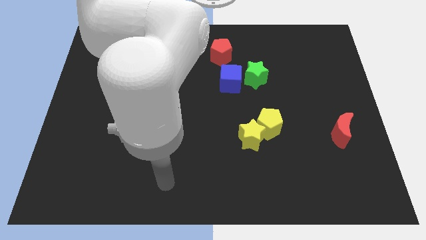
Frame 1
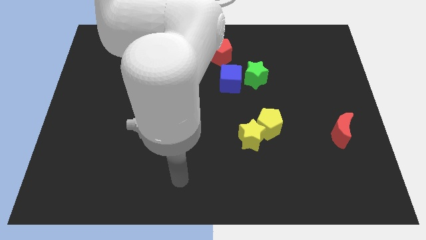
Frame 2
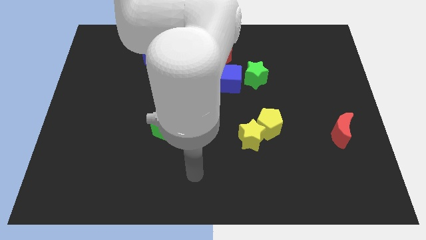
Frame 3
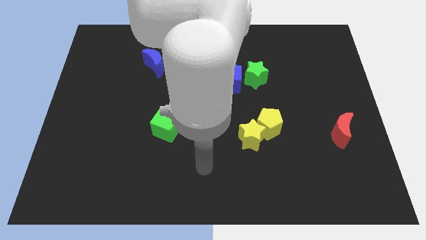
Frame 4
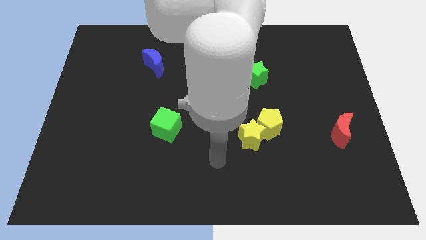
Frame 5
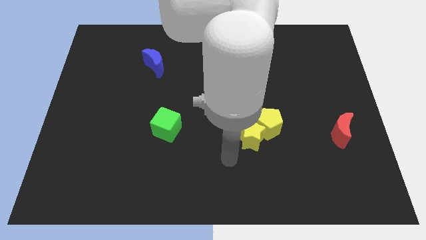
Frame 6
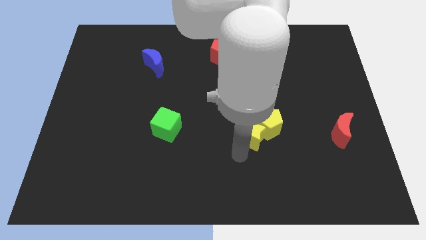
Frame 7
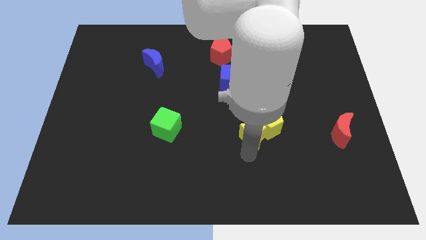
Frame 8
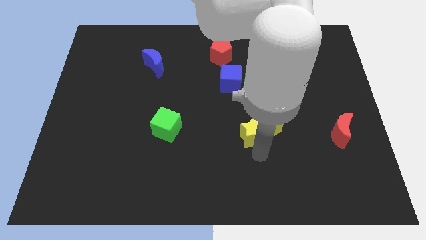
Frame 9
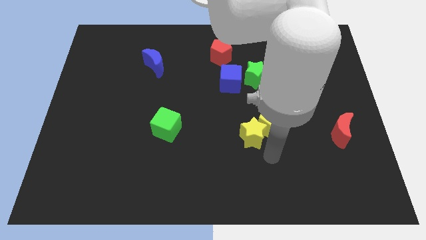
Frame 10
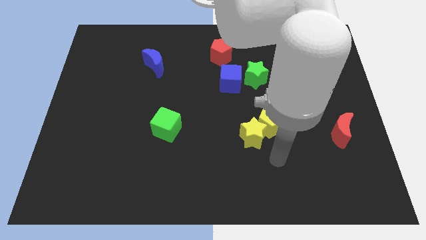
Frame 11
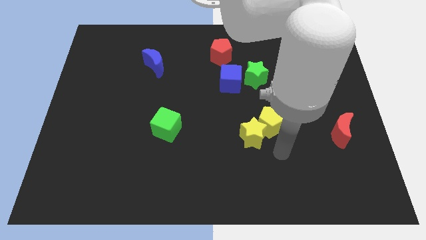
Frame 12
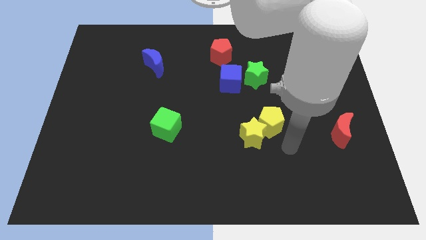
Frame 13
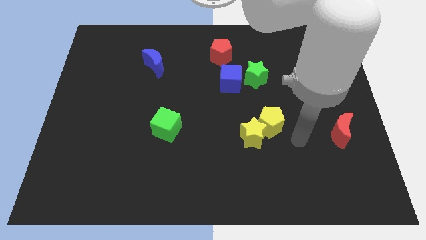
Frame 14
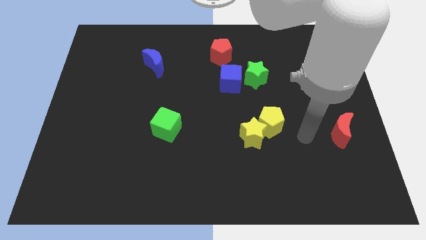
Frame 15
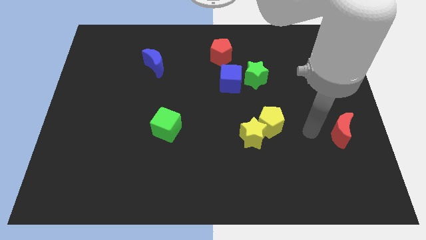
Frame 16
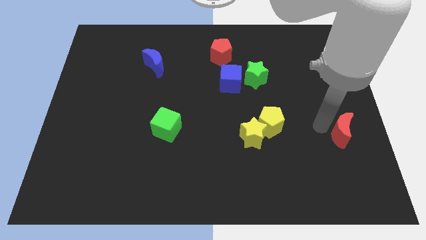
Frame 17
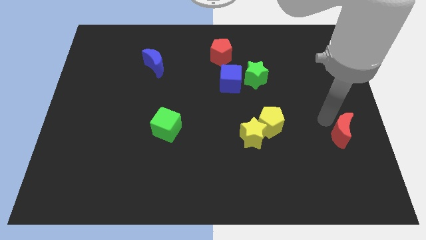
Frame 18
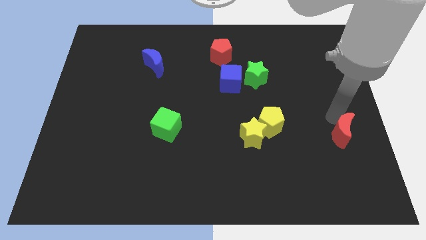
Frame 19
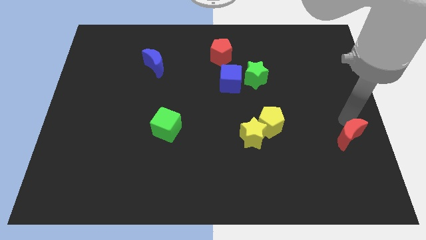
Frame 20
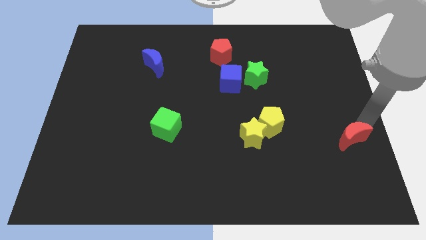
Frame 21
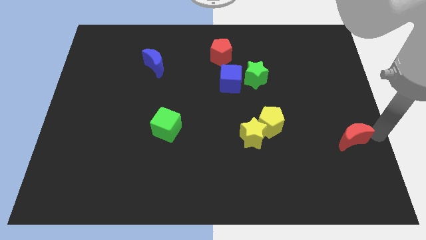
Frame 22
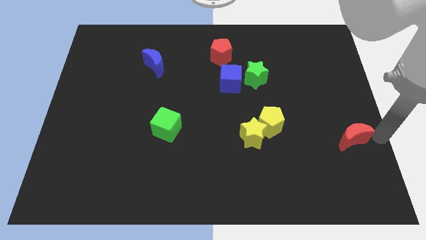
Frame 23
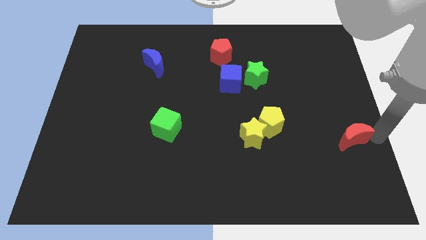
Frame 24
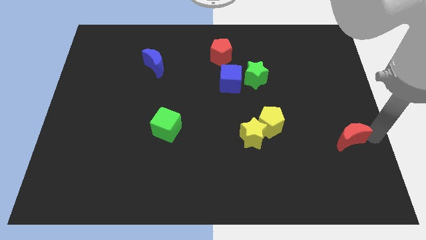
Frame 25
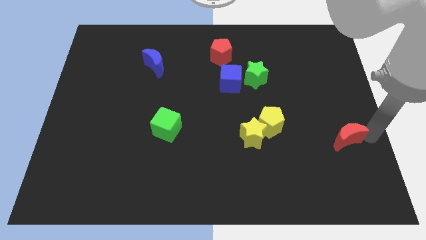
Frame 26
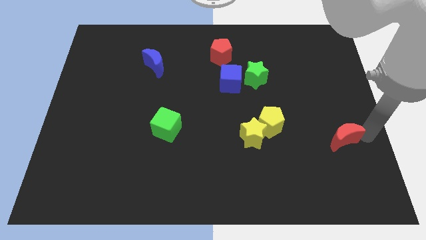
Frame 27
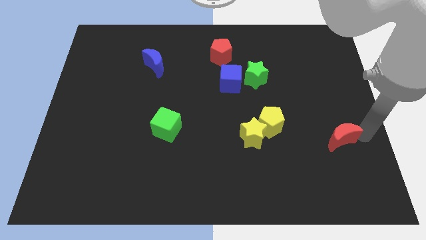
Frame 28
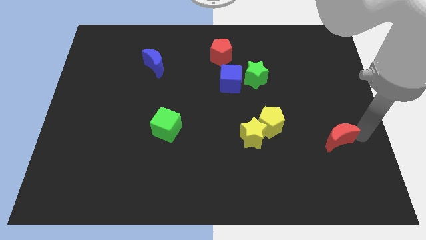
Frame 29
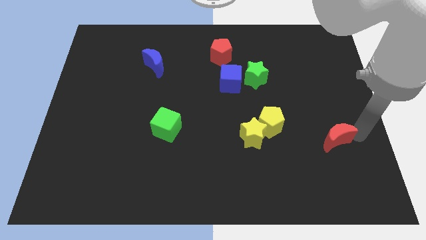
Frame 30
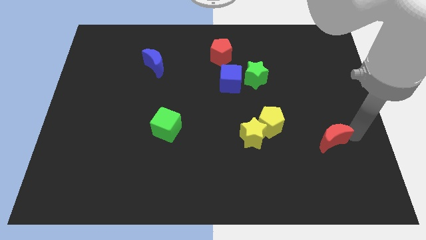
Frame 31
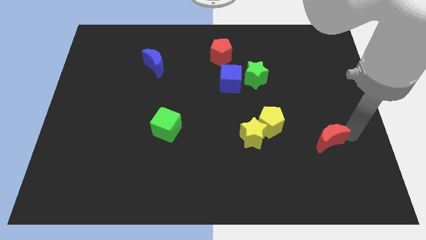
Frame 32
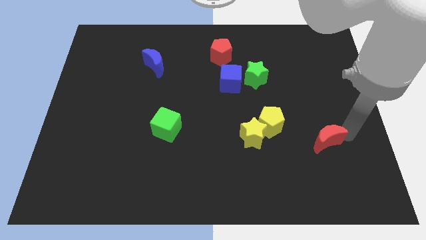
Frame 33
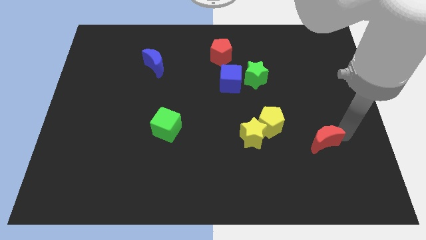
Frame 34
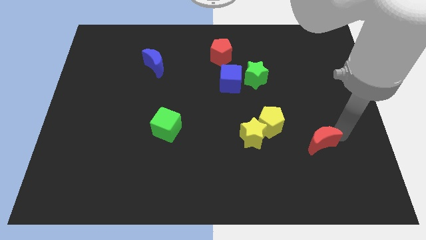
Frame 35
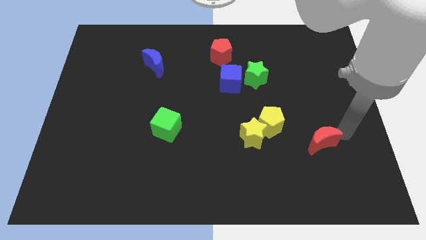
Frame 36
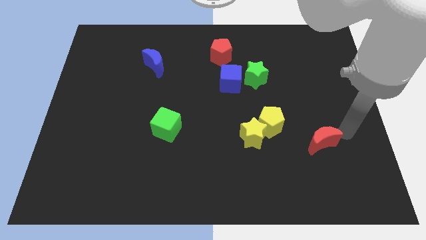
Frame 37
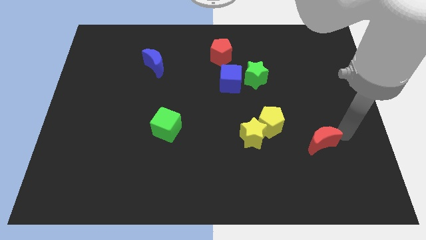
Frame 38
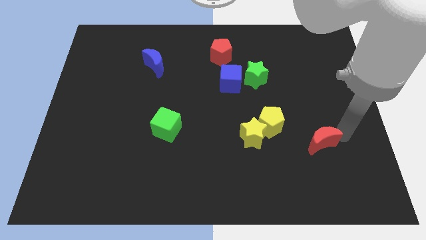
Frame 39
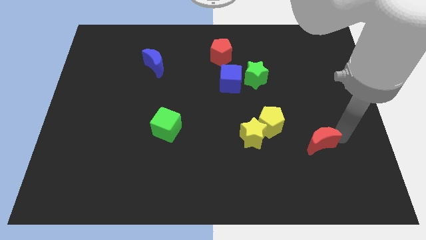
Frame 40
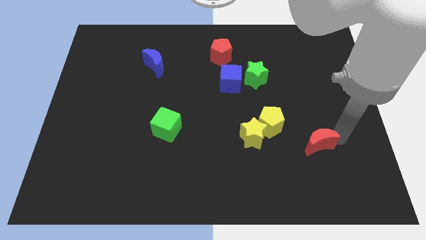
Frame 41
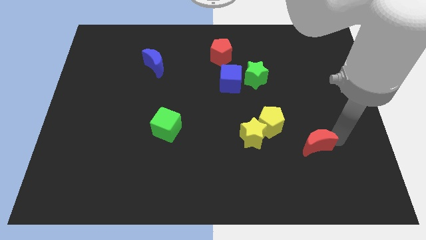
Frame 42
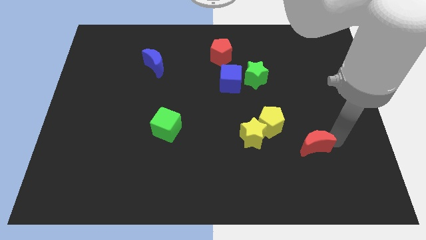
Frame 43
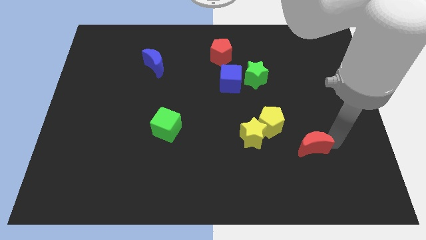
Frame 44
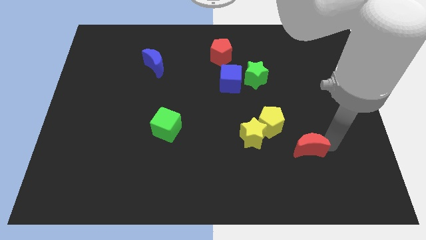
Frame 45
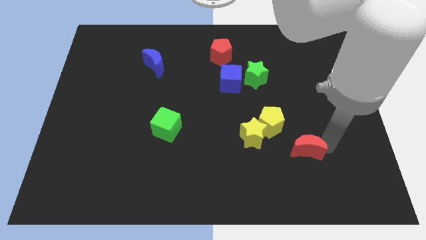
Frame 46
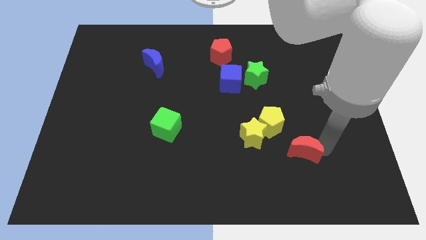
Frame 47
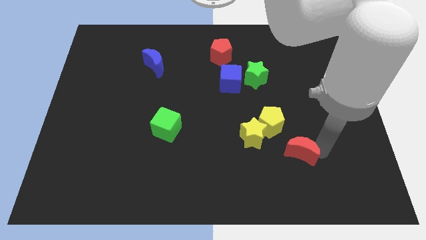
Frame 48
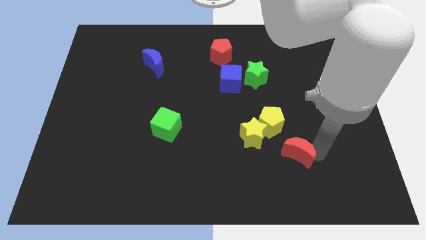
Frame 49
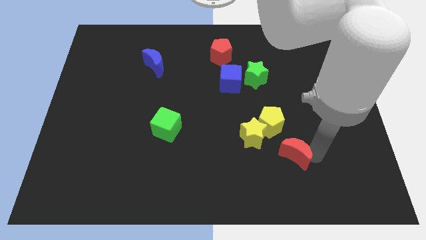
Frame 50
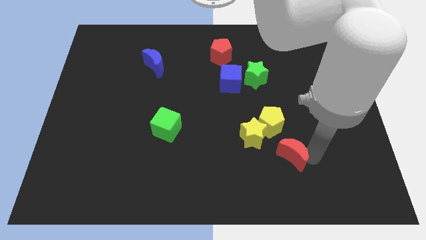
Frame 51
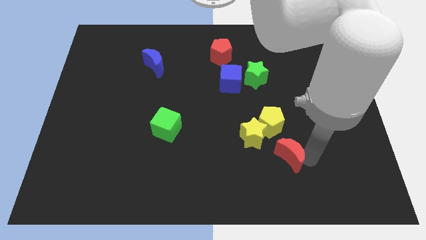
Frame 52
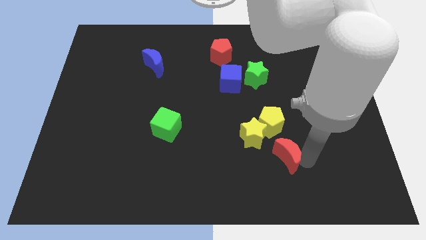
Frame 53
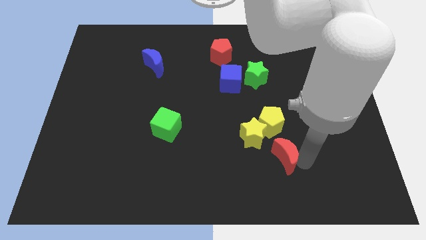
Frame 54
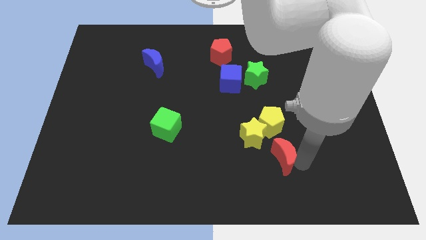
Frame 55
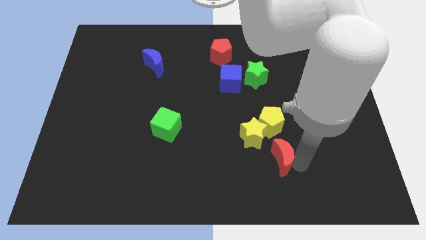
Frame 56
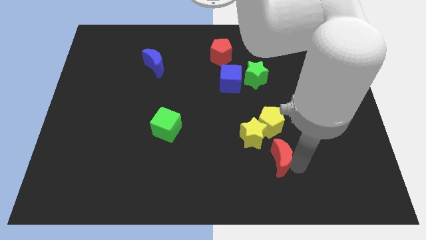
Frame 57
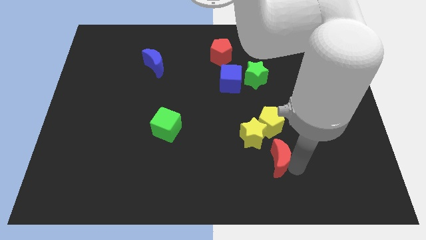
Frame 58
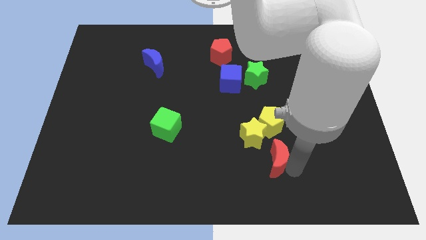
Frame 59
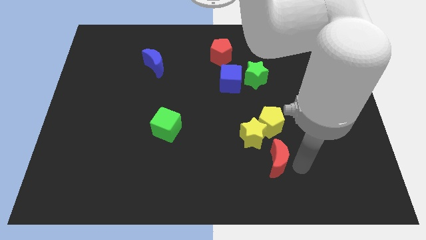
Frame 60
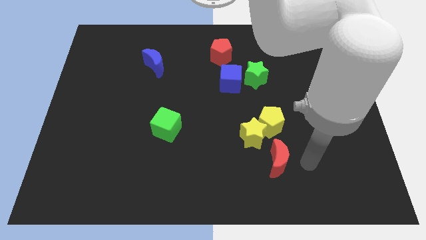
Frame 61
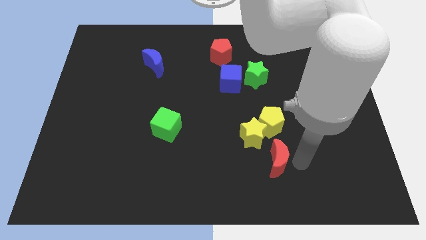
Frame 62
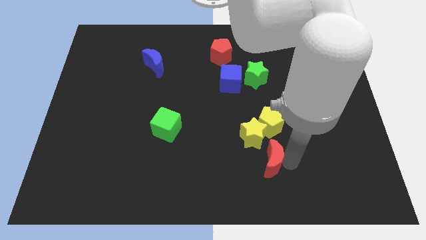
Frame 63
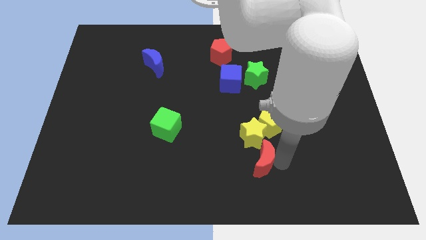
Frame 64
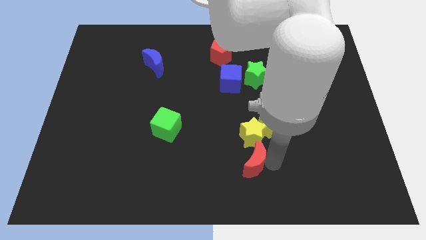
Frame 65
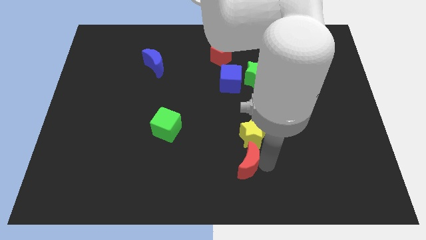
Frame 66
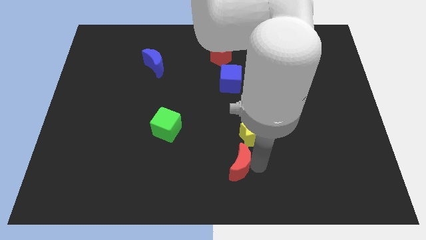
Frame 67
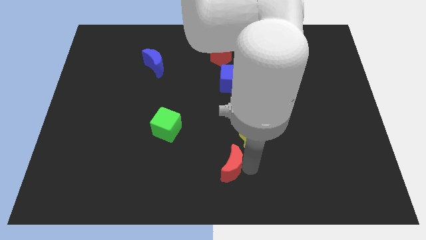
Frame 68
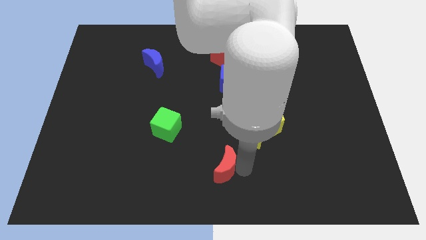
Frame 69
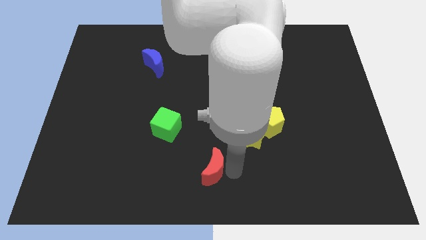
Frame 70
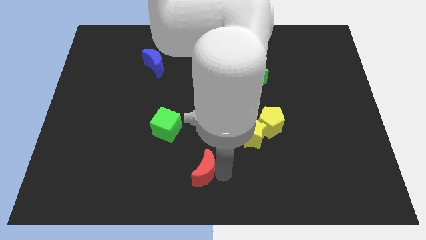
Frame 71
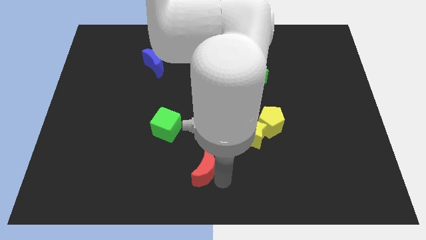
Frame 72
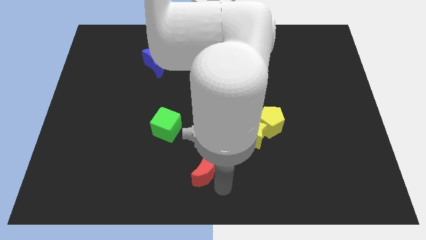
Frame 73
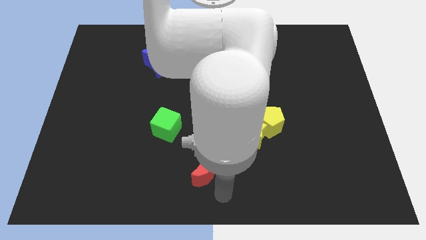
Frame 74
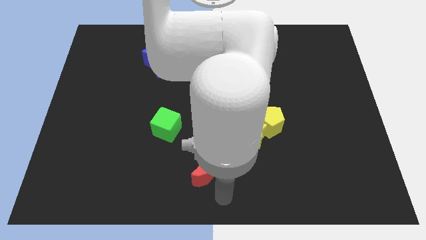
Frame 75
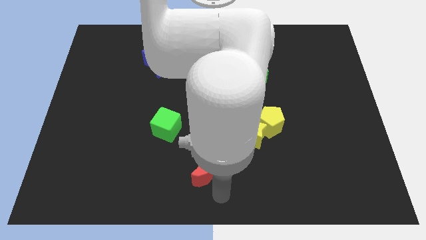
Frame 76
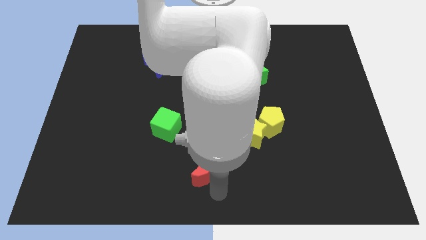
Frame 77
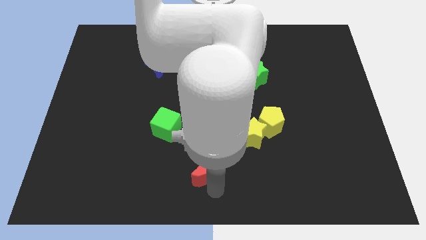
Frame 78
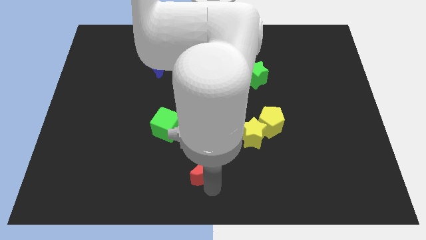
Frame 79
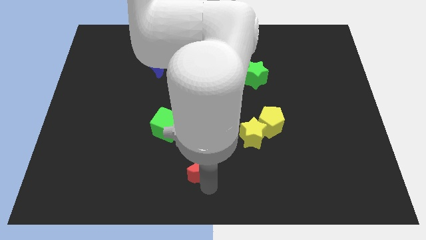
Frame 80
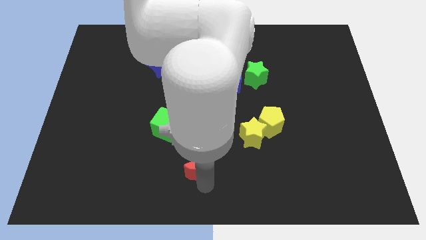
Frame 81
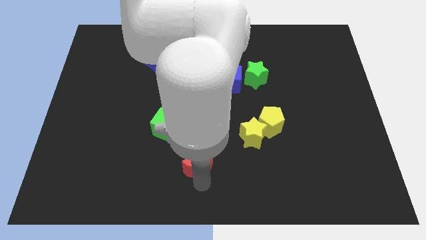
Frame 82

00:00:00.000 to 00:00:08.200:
slide the red moon to the bottom right side of the green cube
